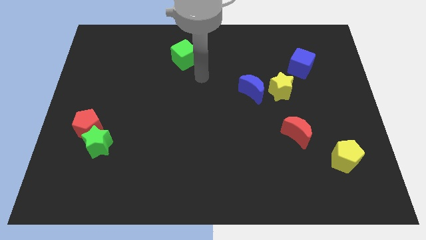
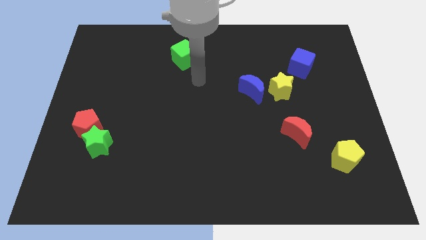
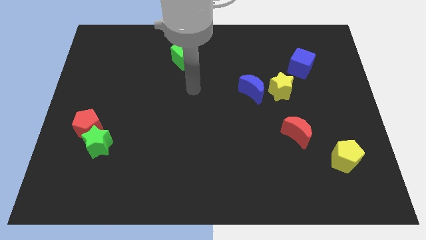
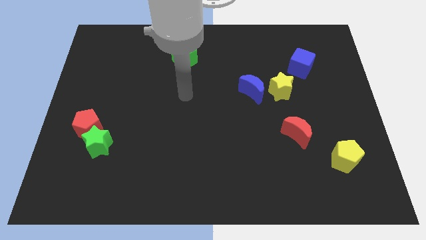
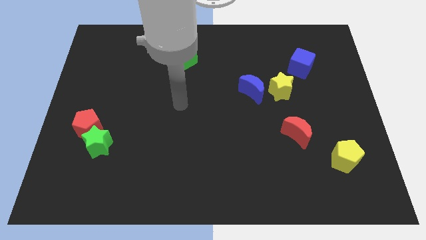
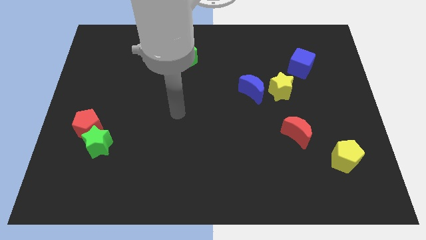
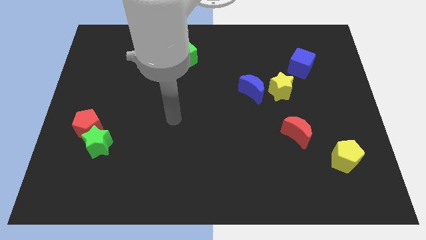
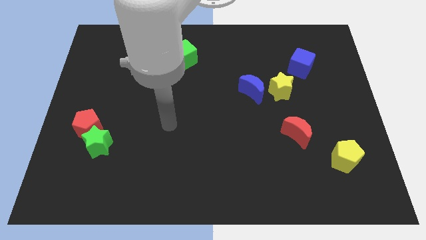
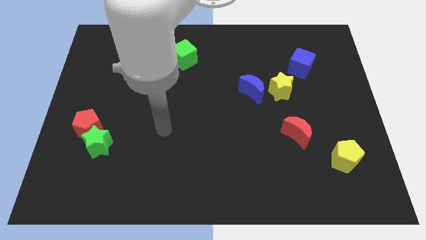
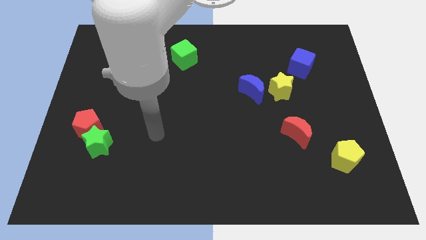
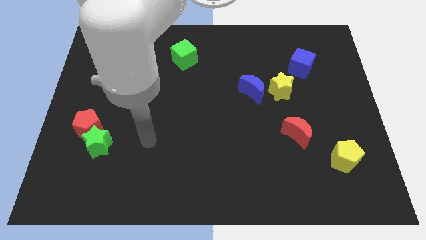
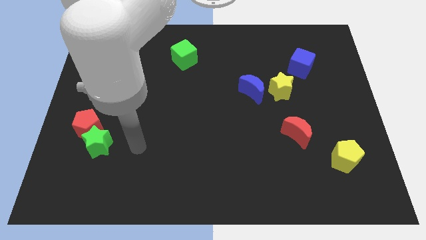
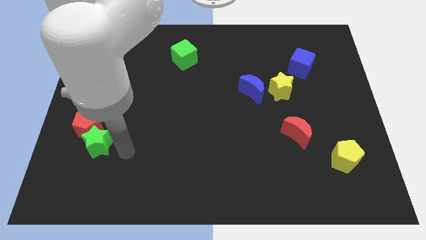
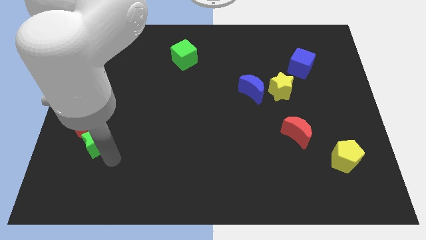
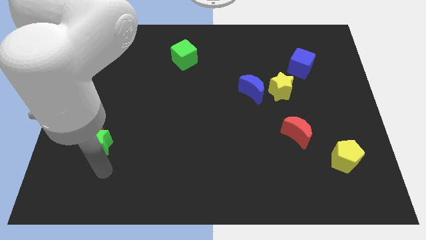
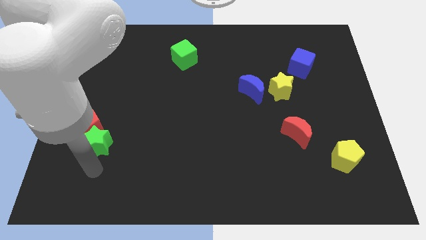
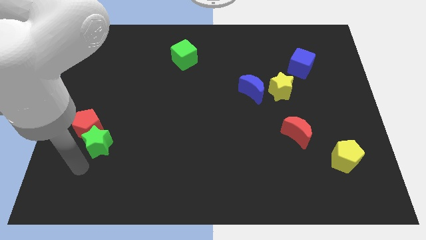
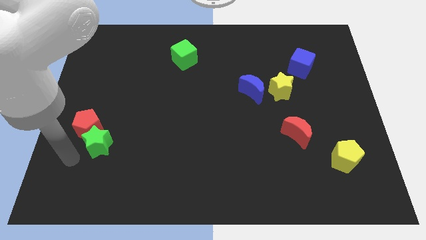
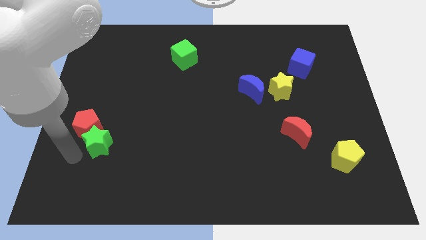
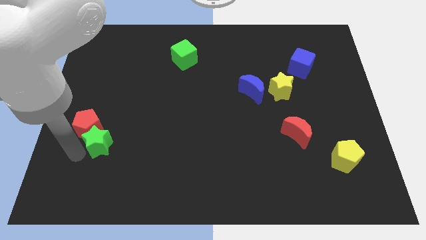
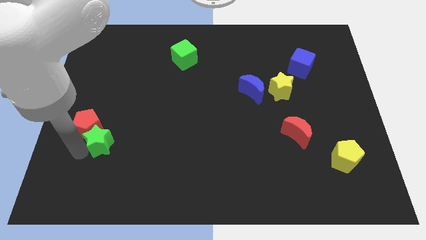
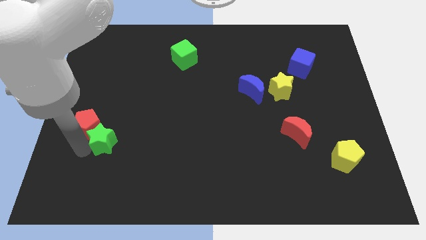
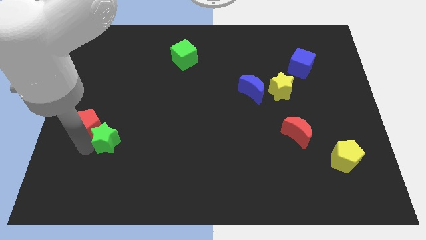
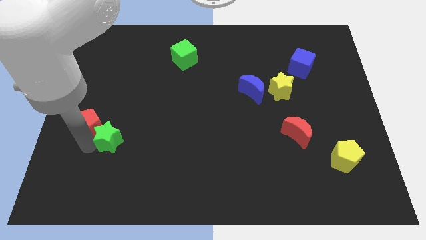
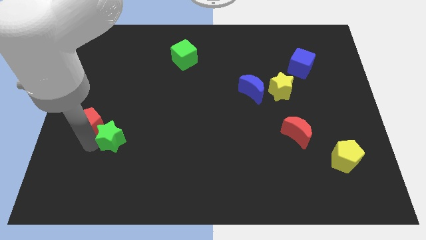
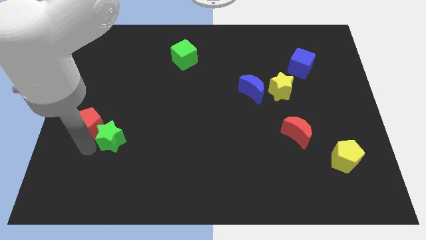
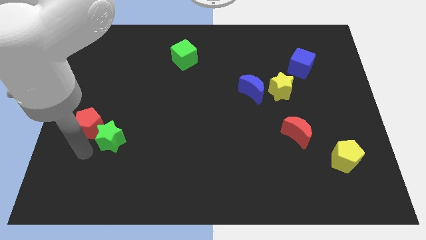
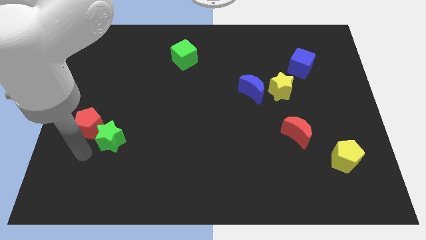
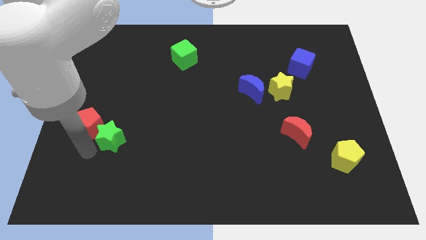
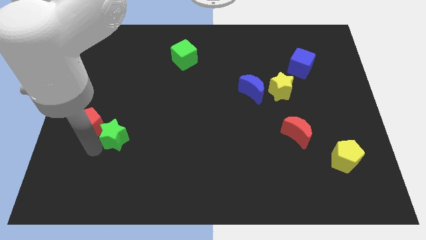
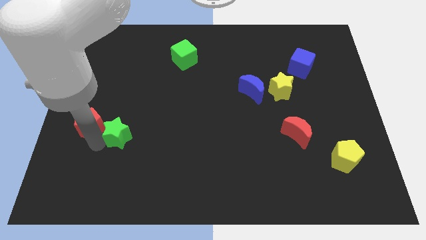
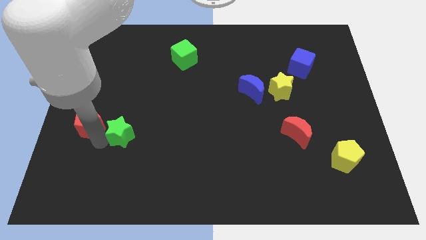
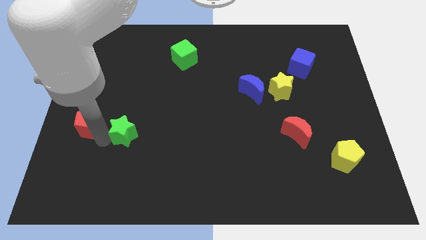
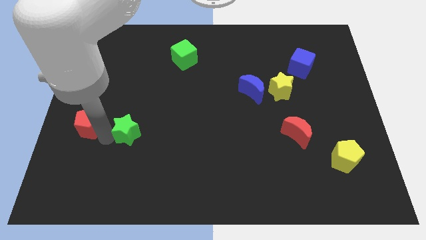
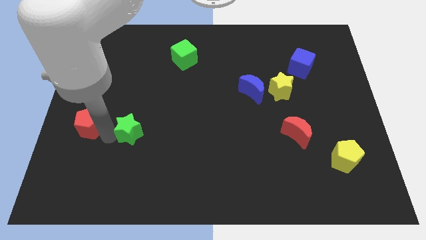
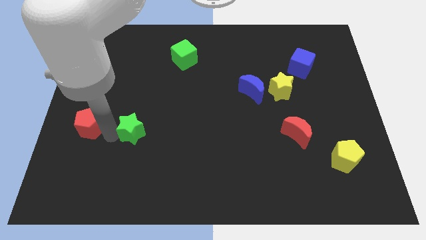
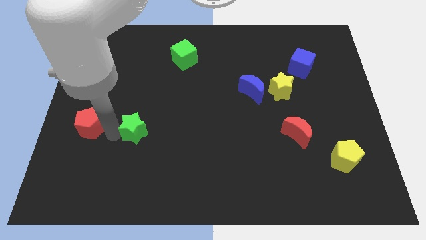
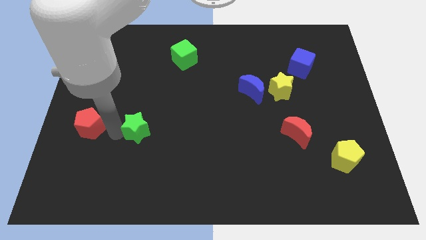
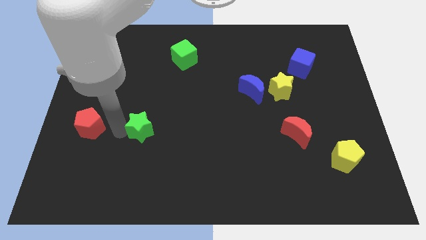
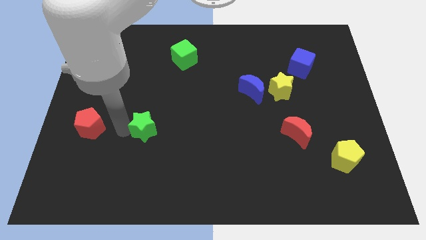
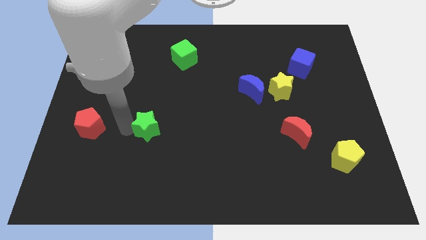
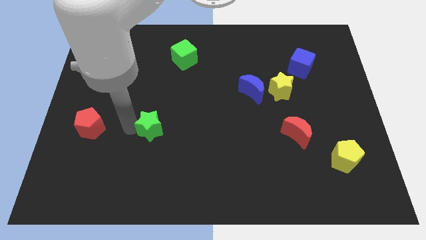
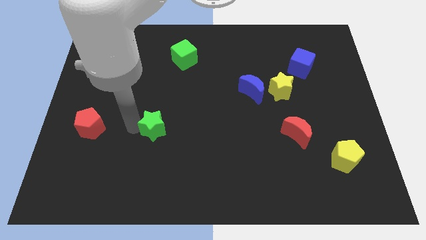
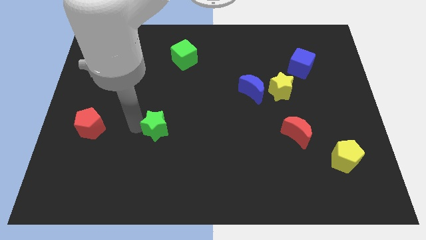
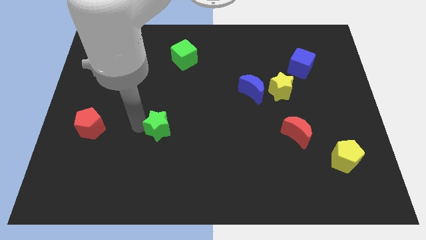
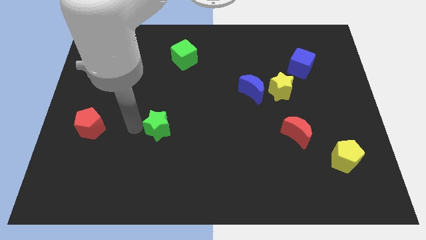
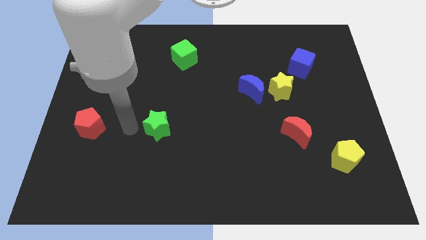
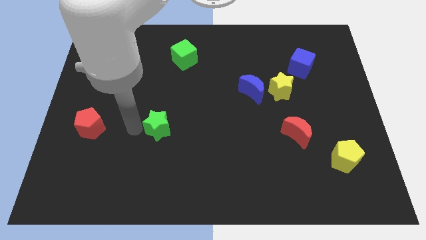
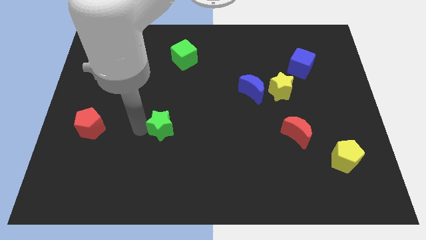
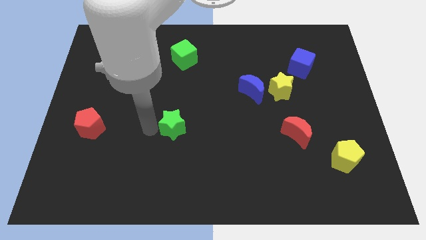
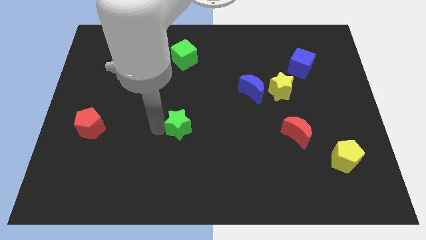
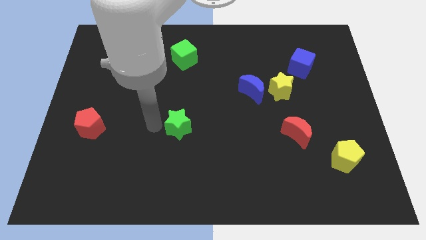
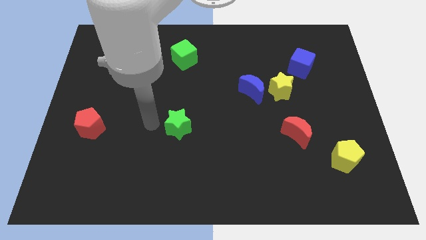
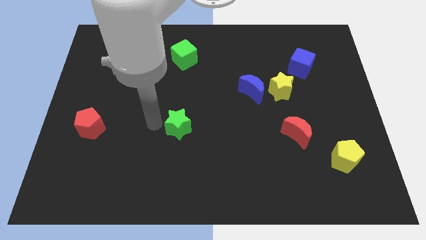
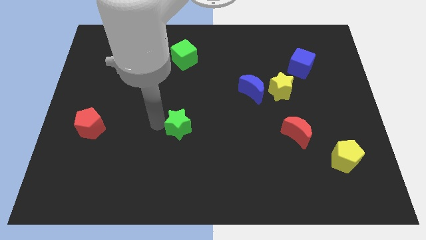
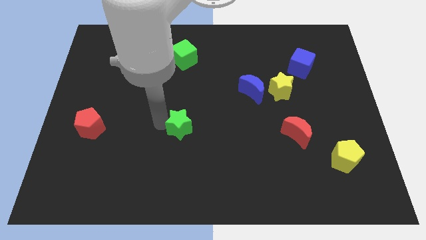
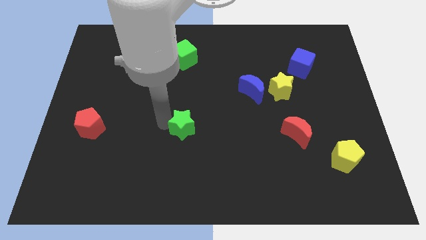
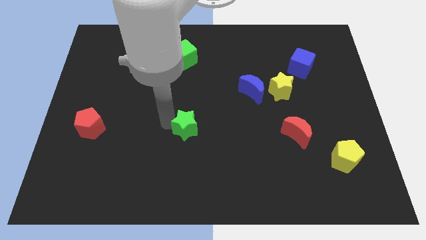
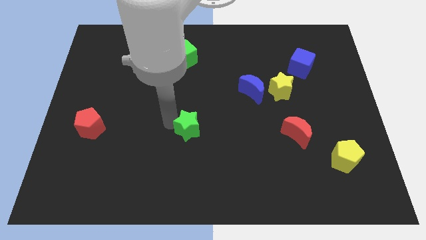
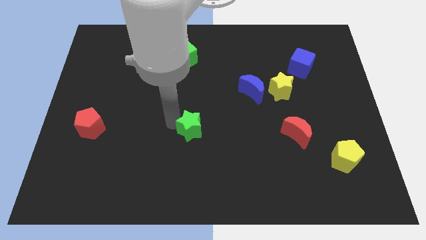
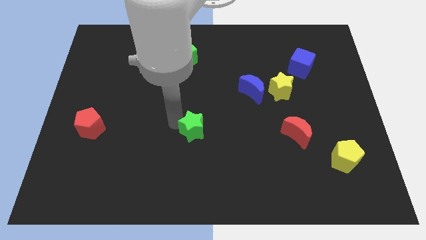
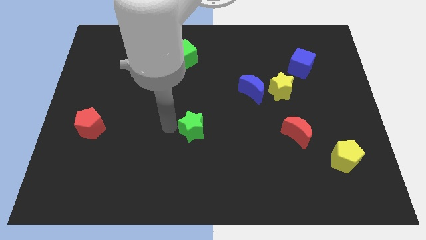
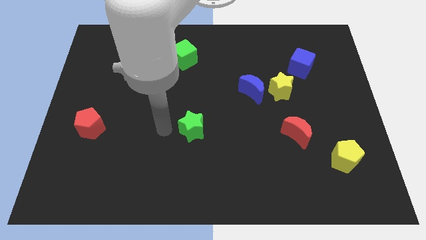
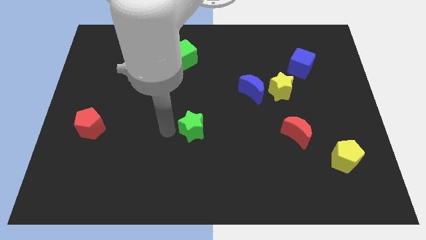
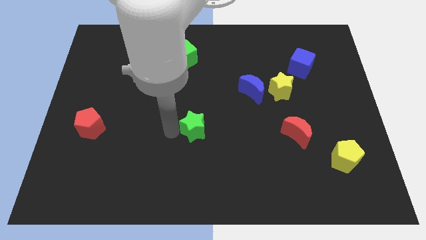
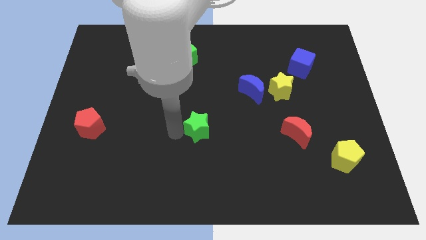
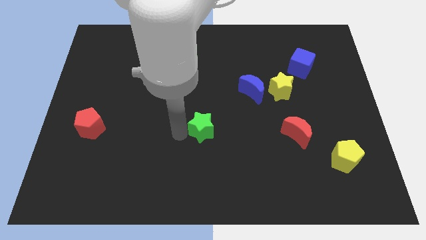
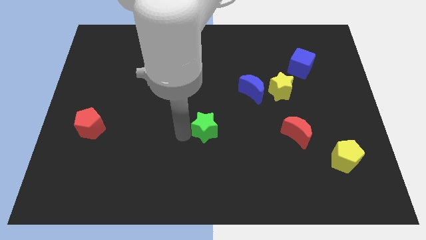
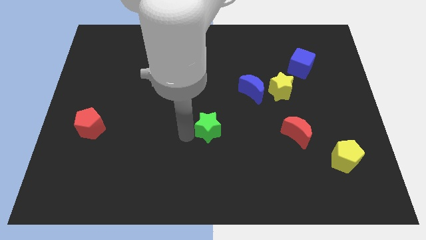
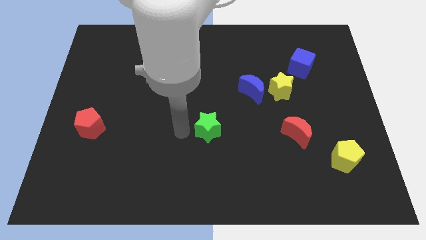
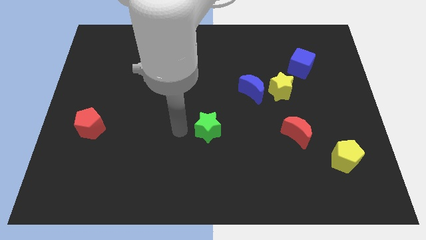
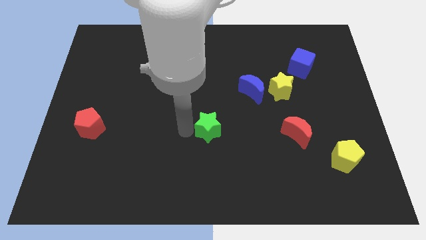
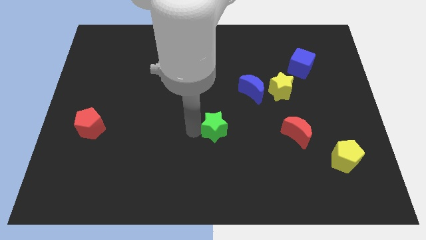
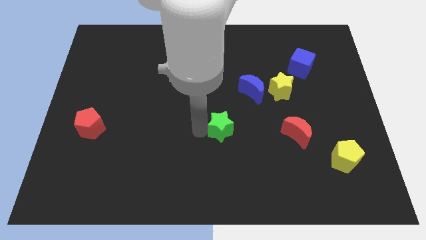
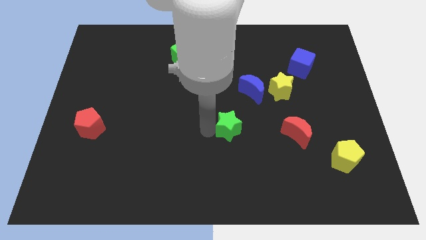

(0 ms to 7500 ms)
move the green star left of the red moon
